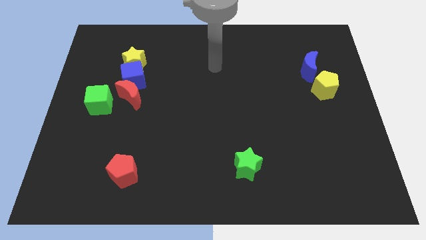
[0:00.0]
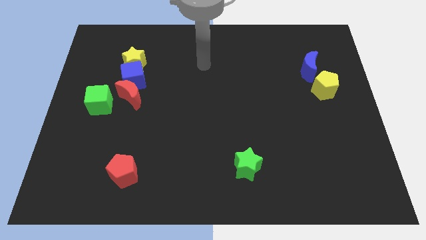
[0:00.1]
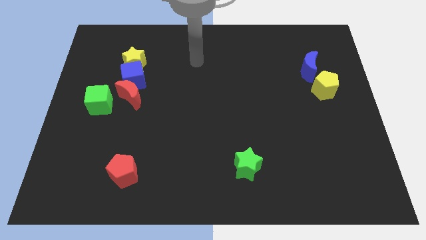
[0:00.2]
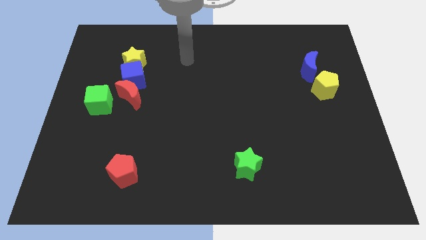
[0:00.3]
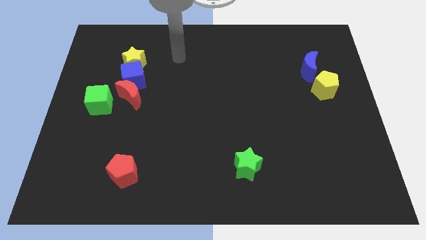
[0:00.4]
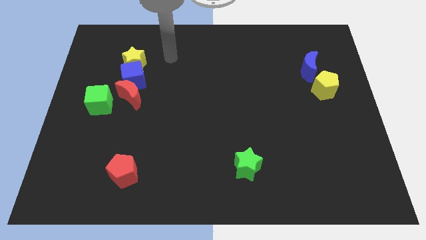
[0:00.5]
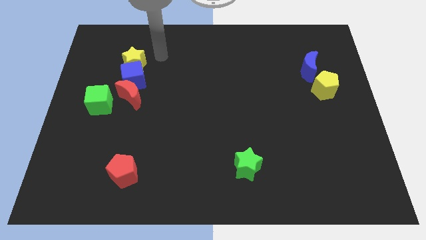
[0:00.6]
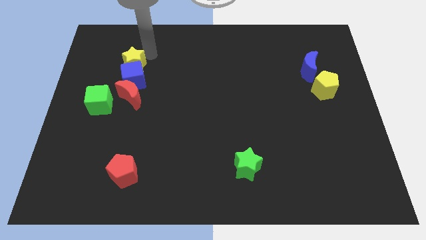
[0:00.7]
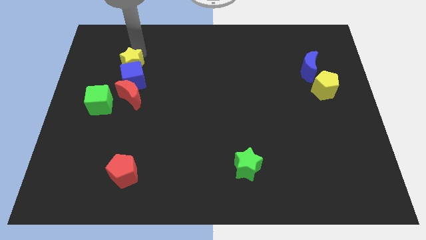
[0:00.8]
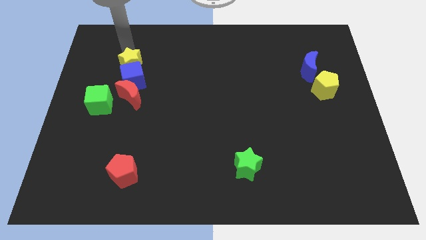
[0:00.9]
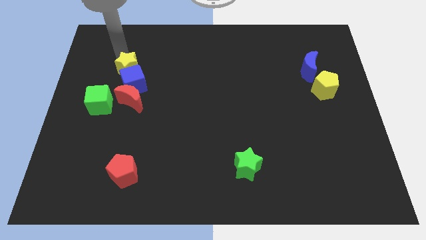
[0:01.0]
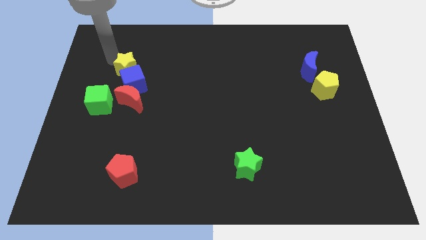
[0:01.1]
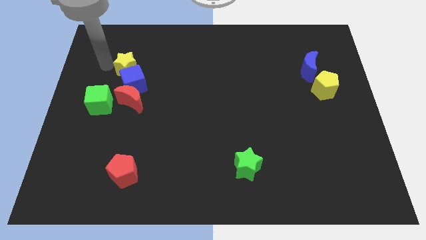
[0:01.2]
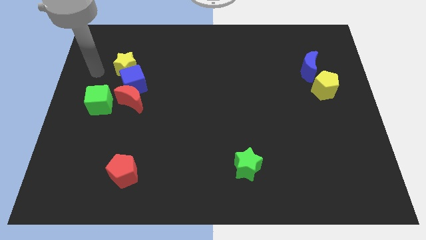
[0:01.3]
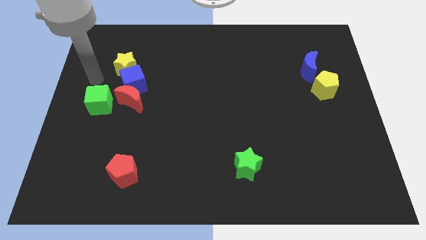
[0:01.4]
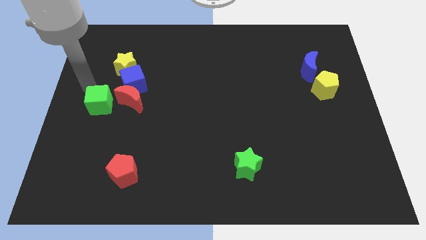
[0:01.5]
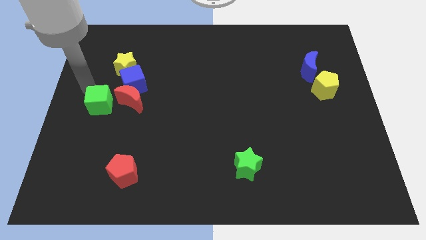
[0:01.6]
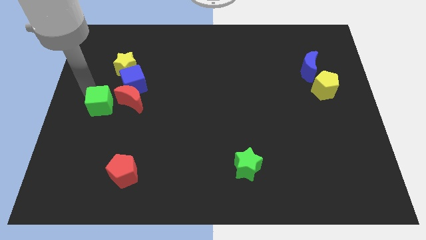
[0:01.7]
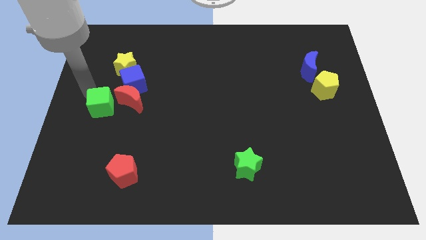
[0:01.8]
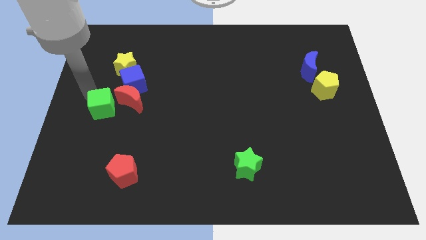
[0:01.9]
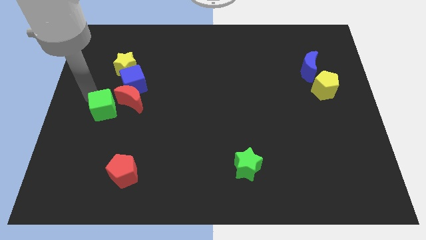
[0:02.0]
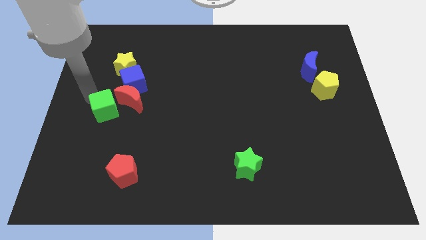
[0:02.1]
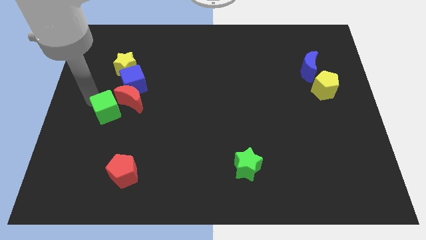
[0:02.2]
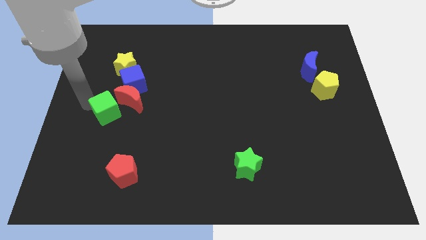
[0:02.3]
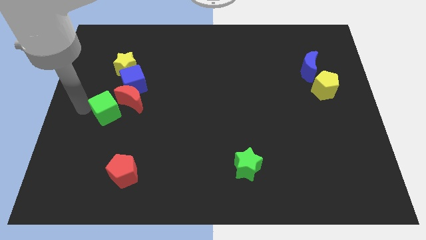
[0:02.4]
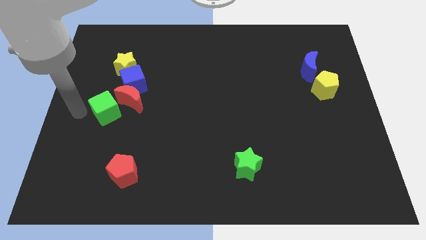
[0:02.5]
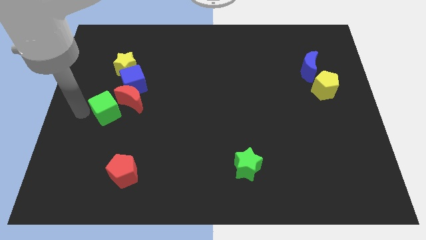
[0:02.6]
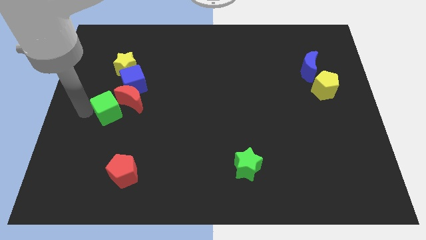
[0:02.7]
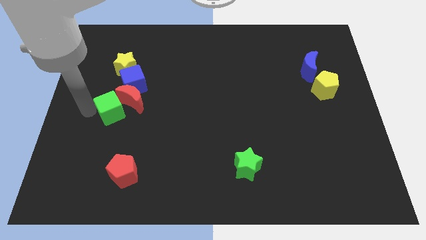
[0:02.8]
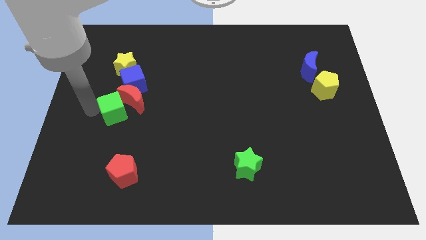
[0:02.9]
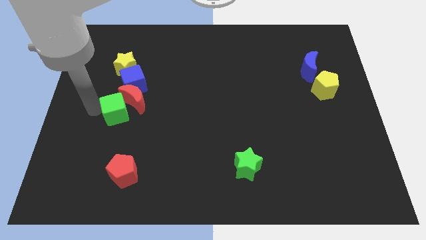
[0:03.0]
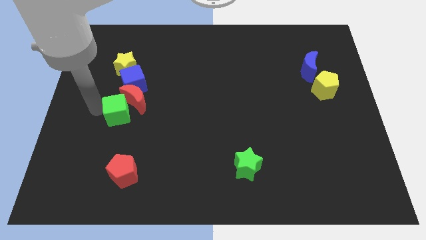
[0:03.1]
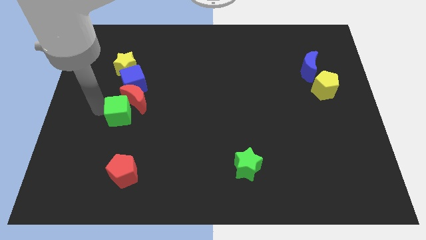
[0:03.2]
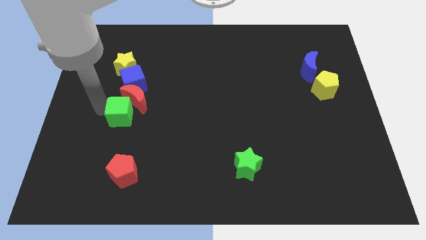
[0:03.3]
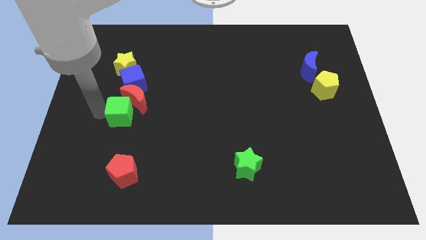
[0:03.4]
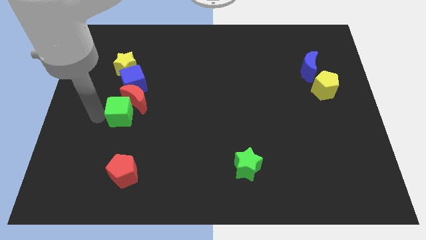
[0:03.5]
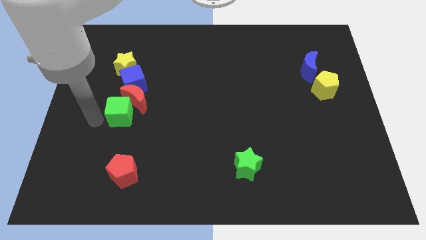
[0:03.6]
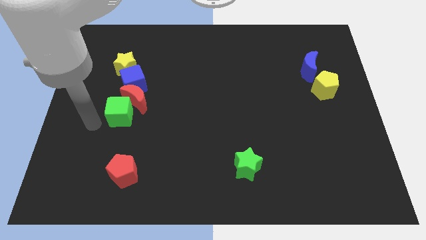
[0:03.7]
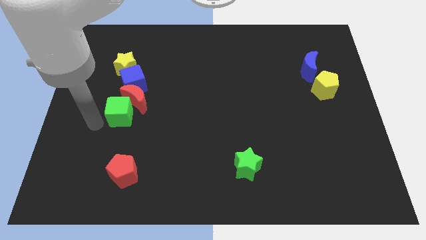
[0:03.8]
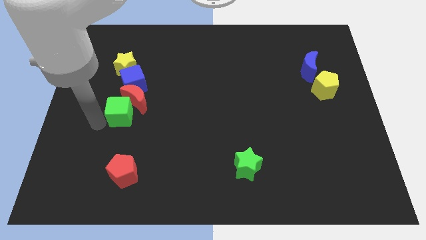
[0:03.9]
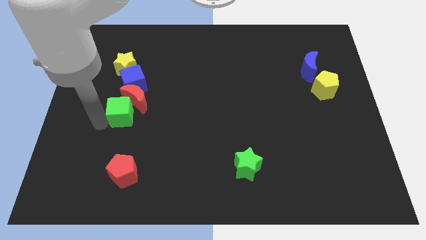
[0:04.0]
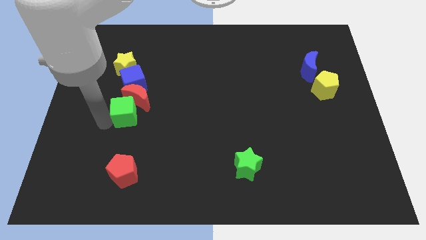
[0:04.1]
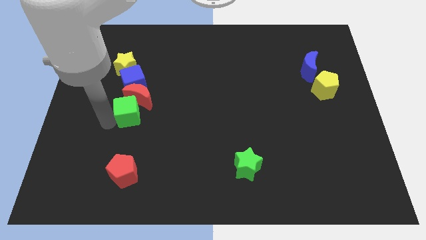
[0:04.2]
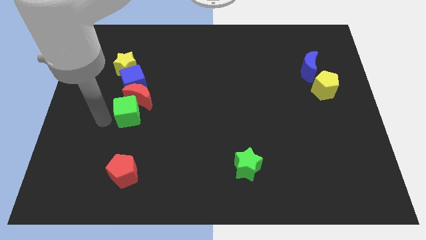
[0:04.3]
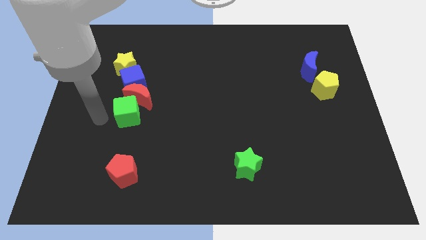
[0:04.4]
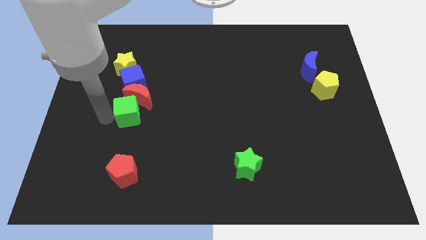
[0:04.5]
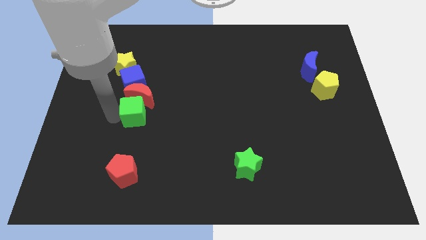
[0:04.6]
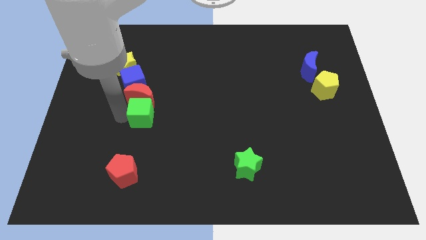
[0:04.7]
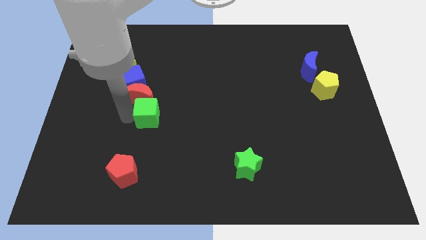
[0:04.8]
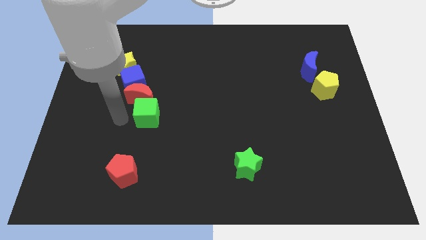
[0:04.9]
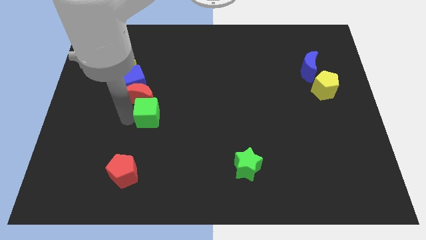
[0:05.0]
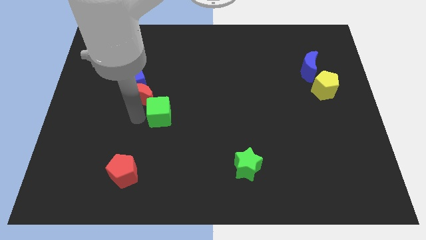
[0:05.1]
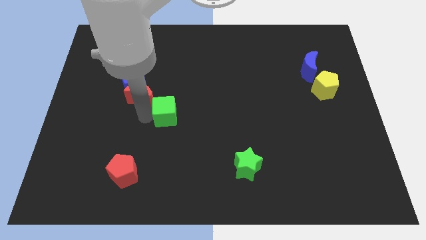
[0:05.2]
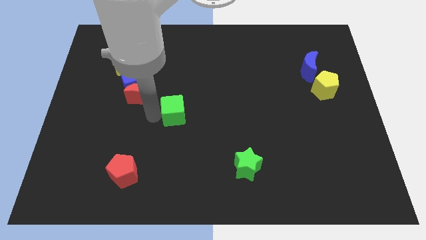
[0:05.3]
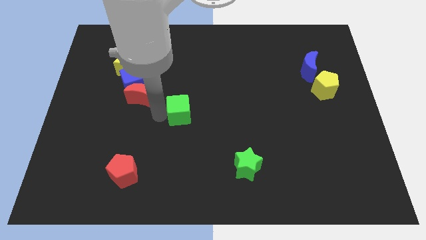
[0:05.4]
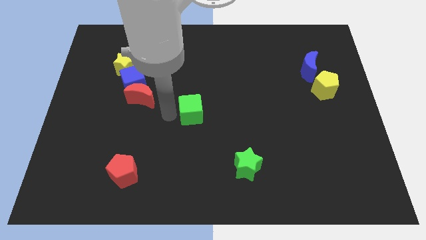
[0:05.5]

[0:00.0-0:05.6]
move the green cube right

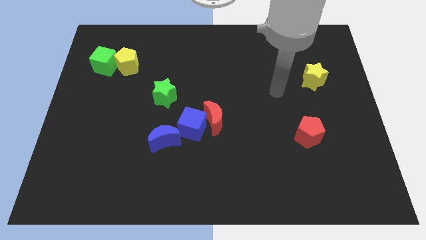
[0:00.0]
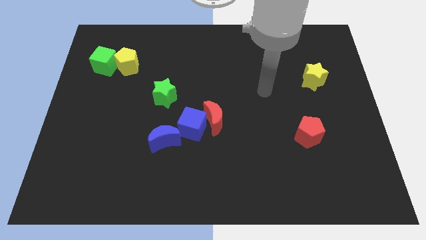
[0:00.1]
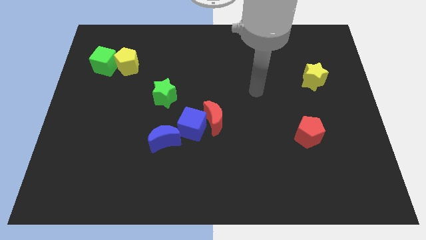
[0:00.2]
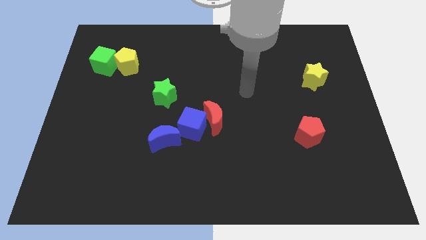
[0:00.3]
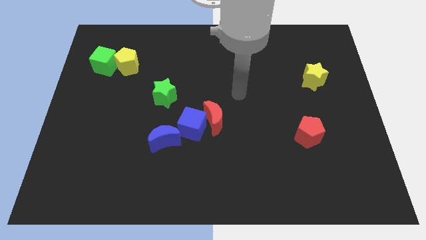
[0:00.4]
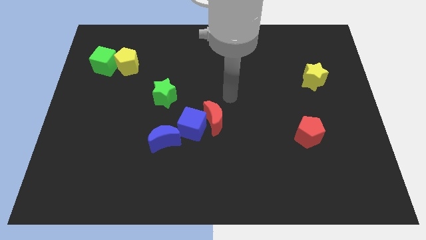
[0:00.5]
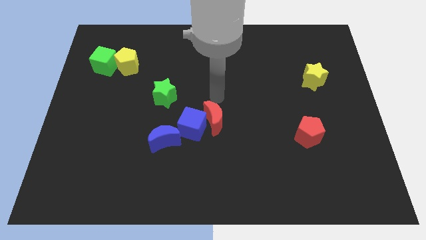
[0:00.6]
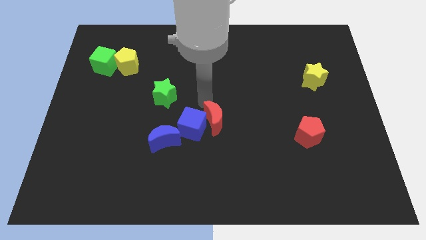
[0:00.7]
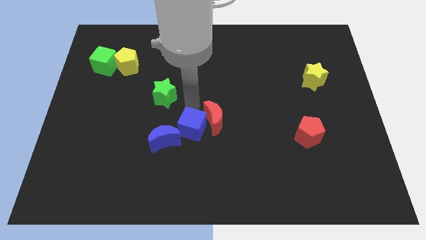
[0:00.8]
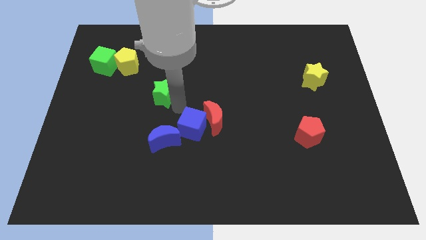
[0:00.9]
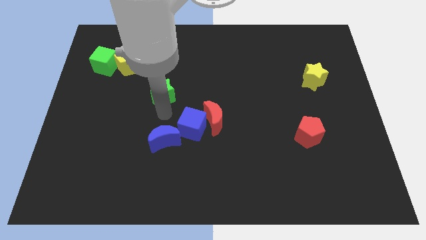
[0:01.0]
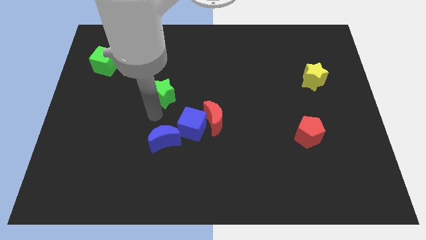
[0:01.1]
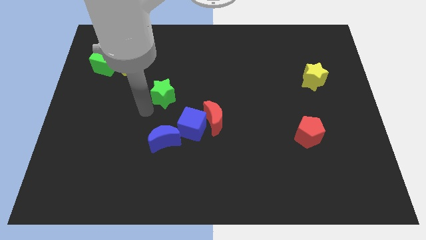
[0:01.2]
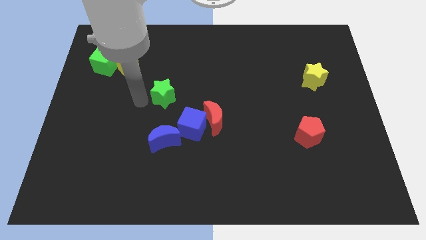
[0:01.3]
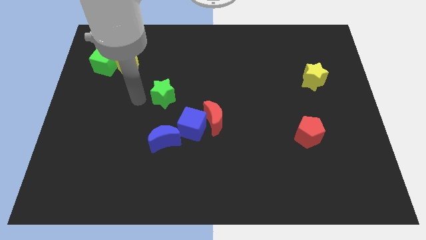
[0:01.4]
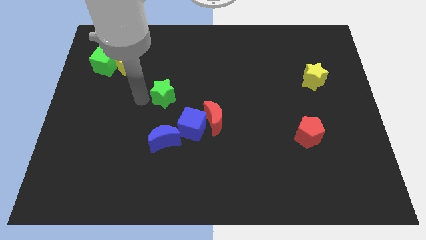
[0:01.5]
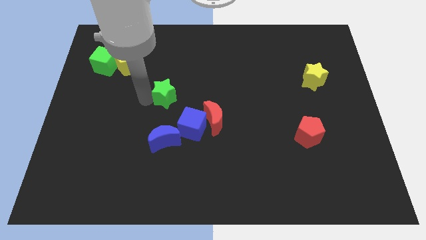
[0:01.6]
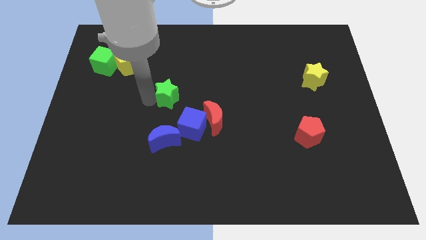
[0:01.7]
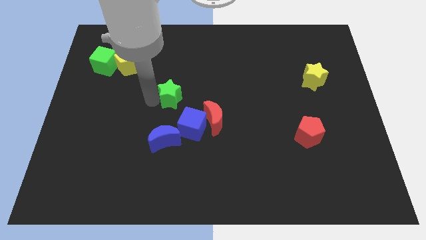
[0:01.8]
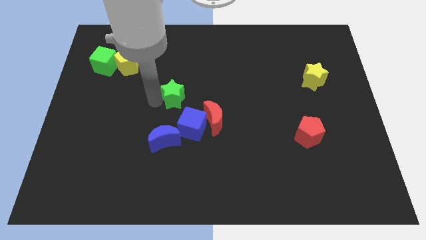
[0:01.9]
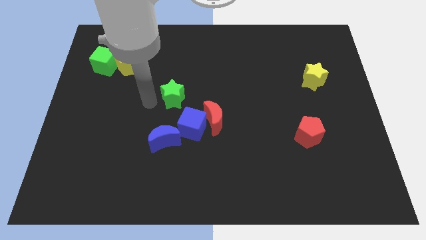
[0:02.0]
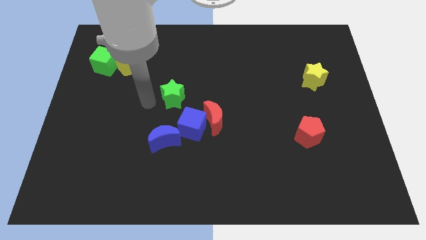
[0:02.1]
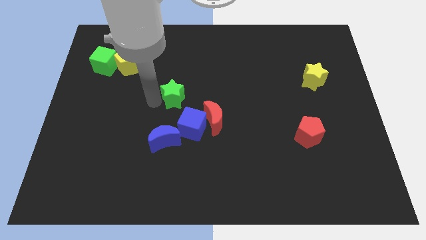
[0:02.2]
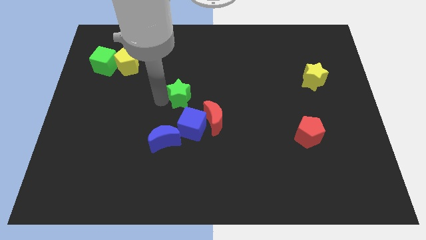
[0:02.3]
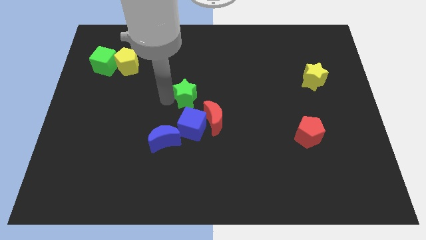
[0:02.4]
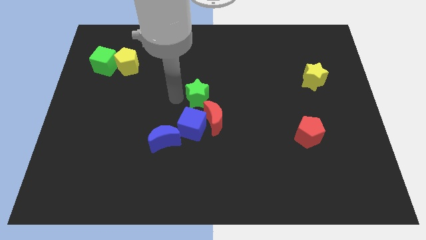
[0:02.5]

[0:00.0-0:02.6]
slide the green star a bit to the right
